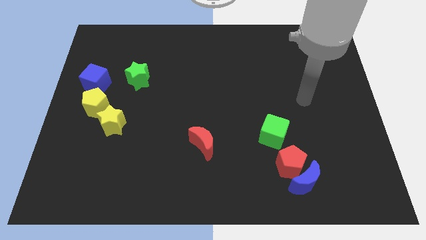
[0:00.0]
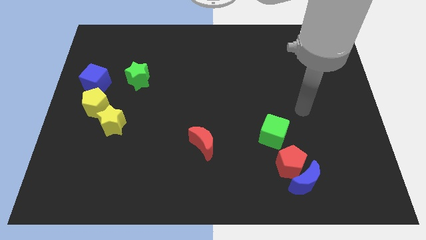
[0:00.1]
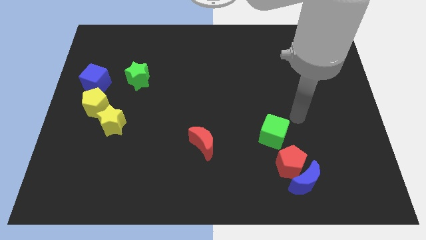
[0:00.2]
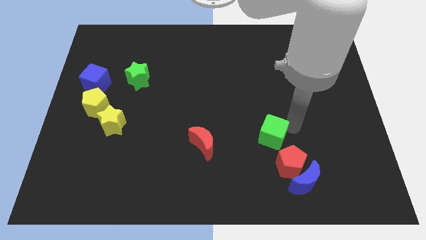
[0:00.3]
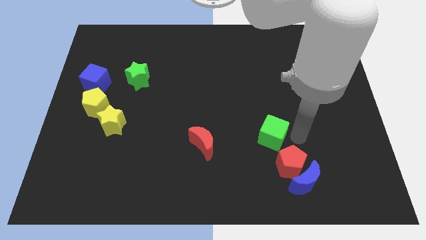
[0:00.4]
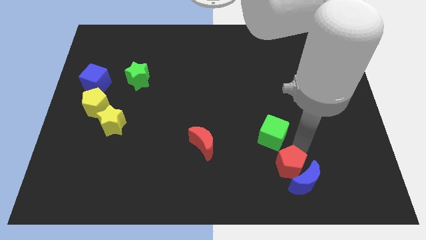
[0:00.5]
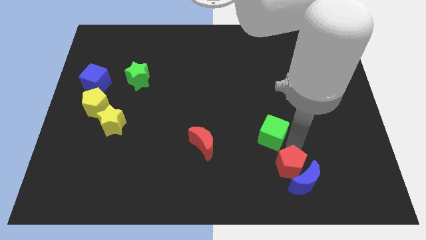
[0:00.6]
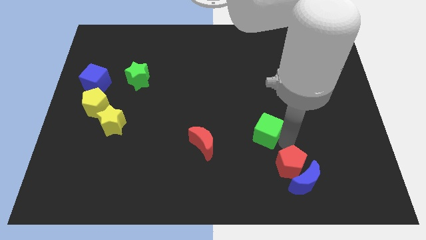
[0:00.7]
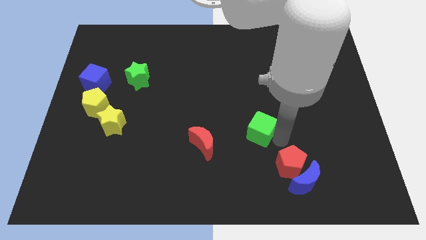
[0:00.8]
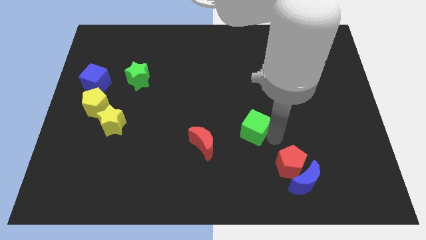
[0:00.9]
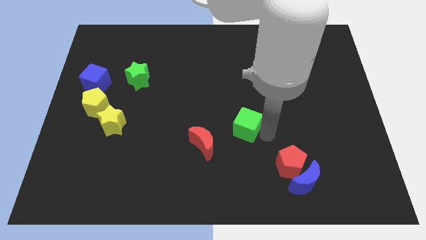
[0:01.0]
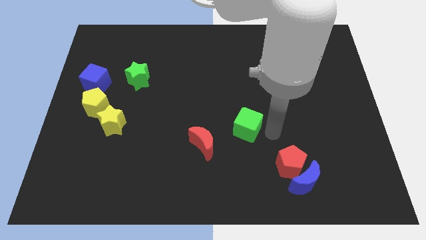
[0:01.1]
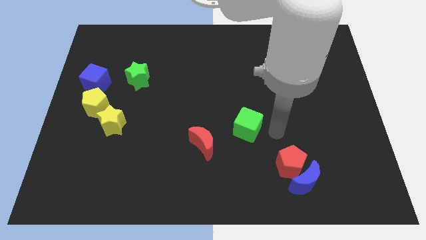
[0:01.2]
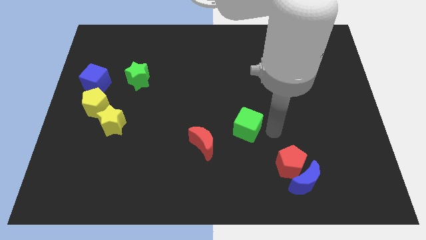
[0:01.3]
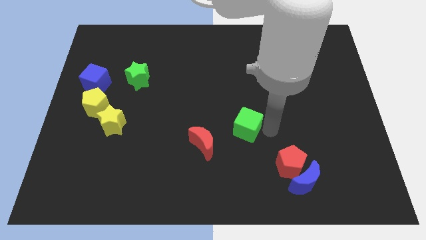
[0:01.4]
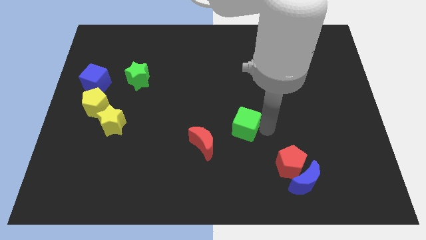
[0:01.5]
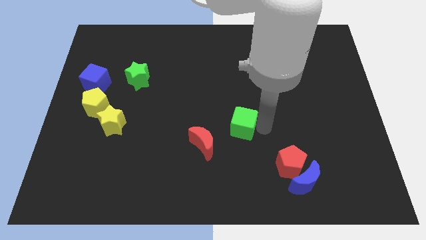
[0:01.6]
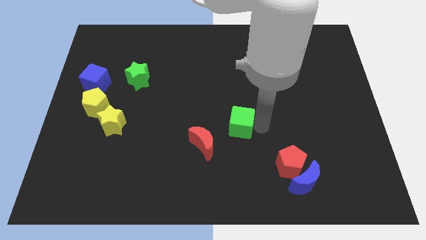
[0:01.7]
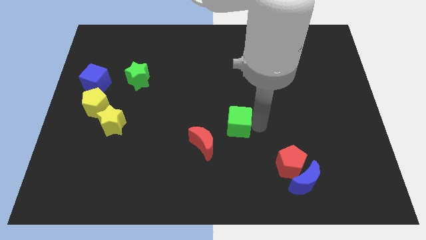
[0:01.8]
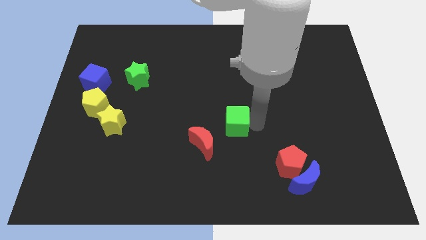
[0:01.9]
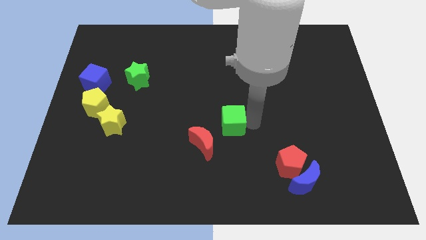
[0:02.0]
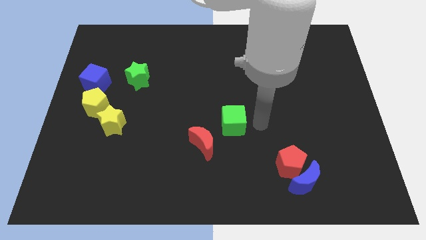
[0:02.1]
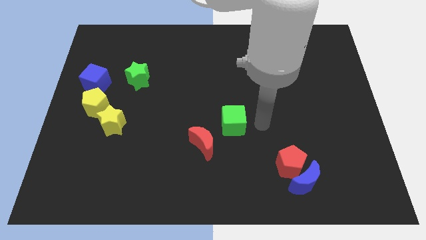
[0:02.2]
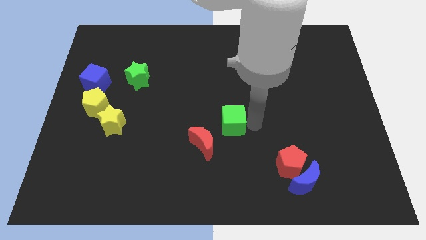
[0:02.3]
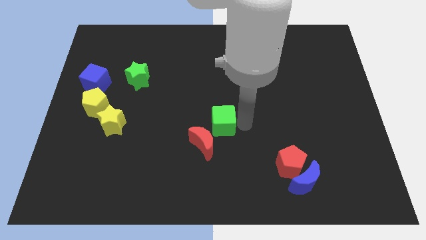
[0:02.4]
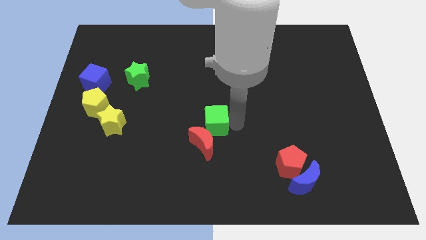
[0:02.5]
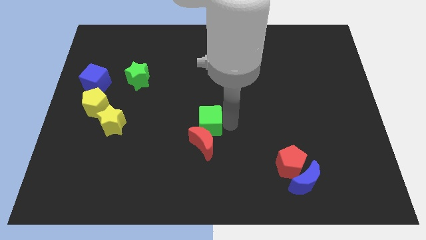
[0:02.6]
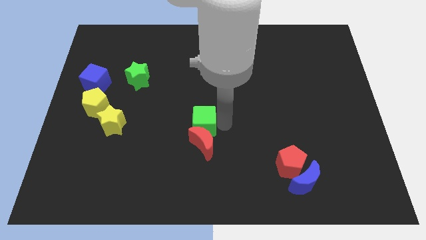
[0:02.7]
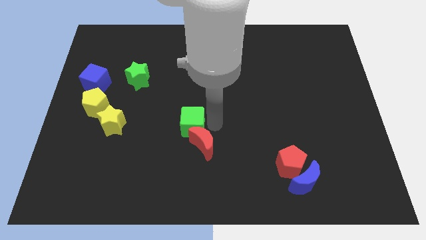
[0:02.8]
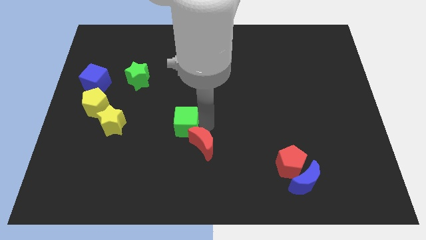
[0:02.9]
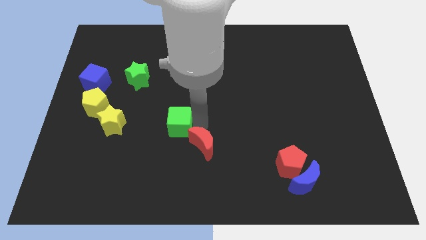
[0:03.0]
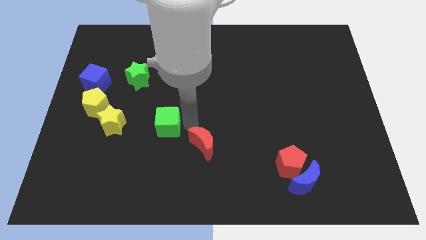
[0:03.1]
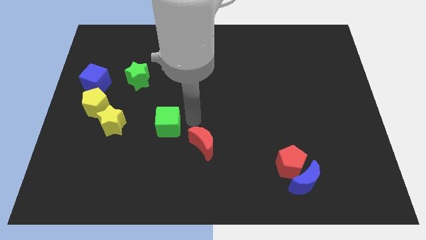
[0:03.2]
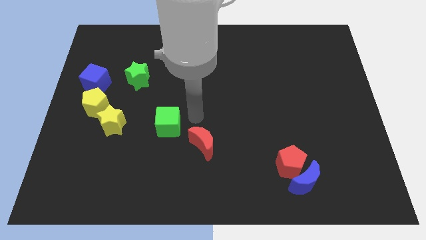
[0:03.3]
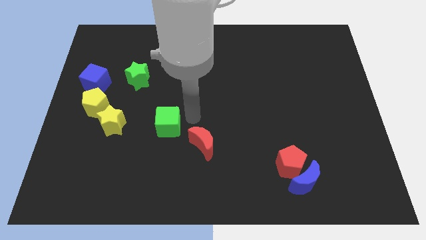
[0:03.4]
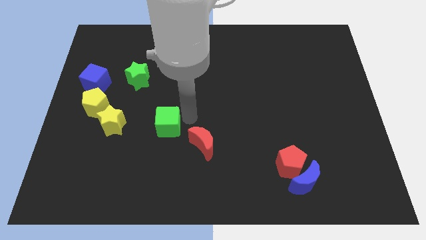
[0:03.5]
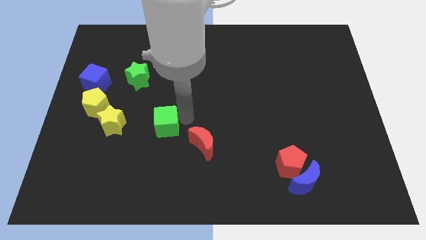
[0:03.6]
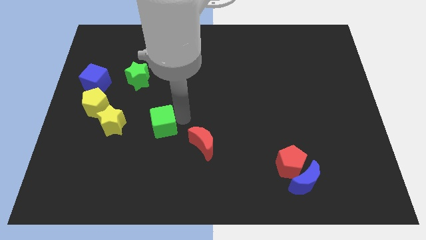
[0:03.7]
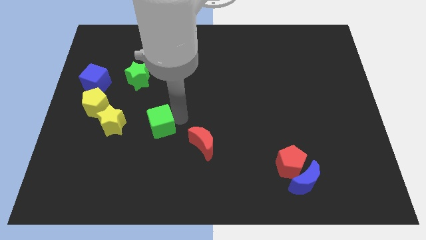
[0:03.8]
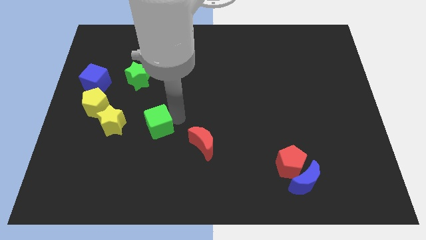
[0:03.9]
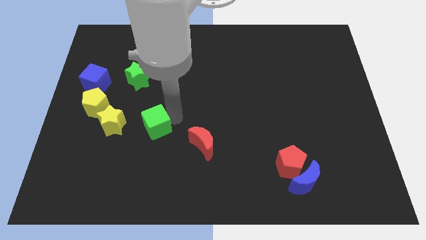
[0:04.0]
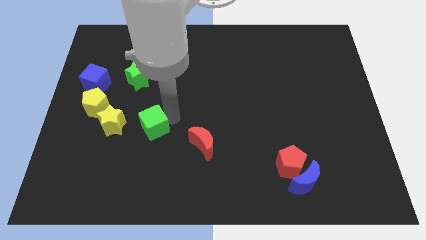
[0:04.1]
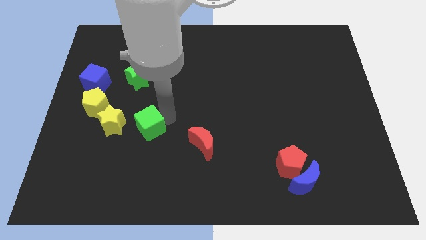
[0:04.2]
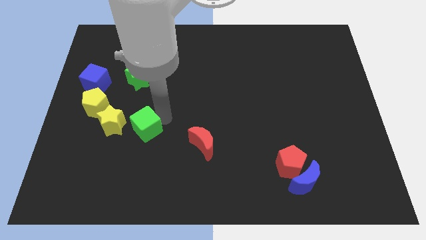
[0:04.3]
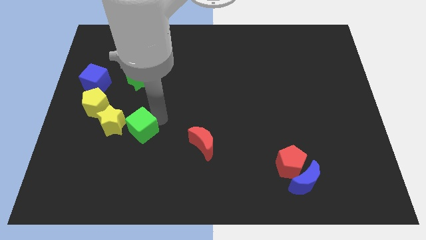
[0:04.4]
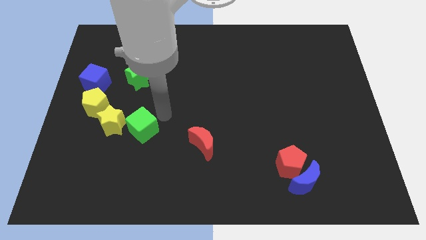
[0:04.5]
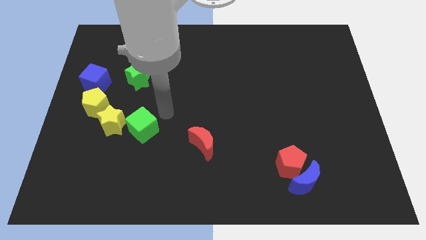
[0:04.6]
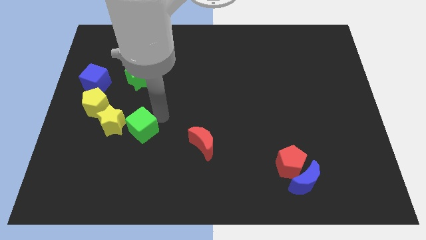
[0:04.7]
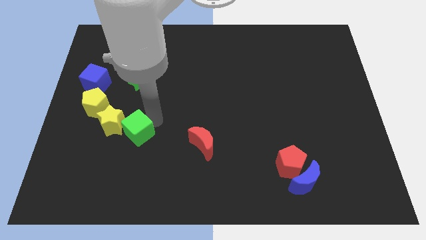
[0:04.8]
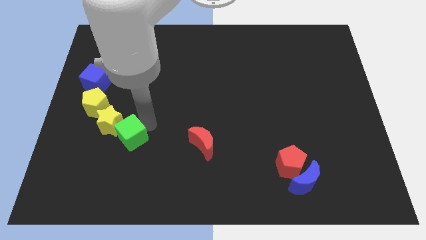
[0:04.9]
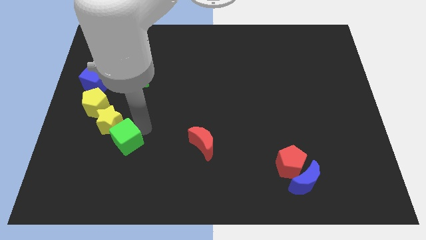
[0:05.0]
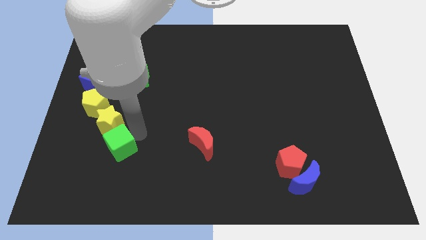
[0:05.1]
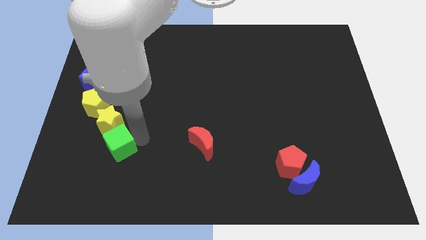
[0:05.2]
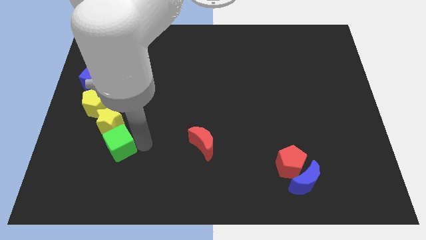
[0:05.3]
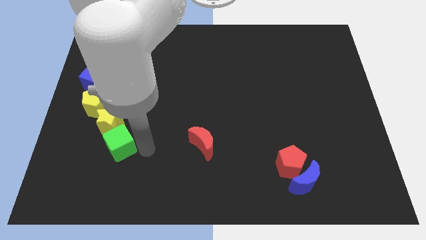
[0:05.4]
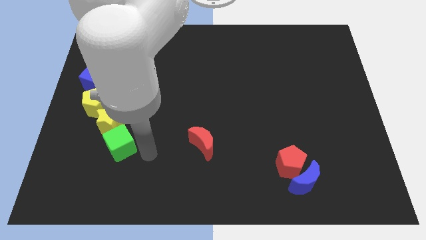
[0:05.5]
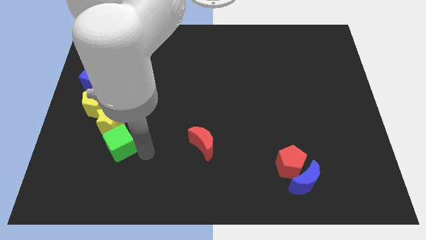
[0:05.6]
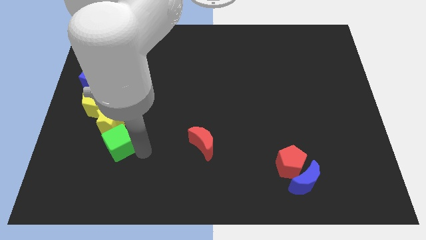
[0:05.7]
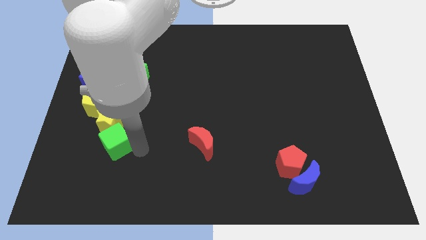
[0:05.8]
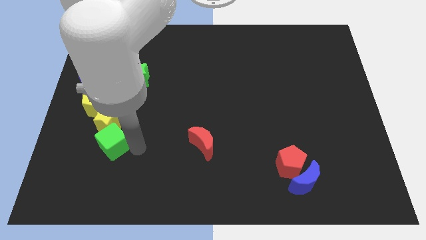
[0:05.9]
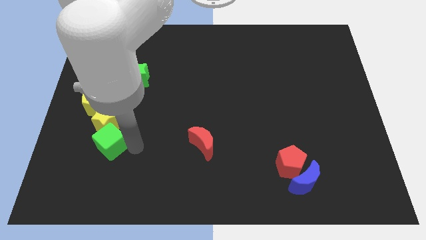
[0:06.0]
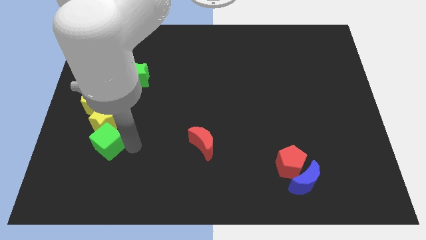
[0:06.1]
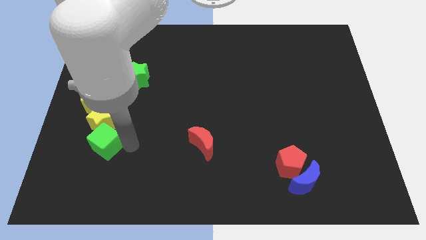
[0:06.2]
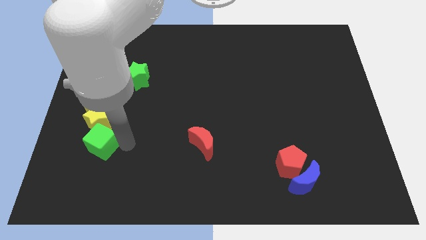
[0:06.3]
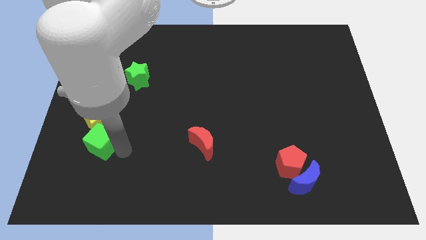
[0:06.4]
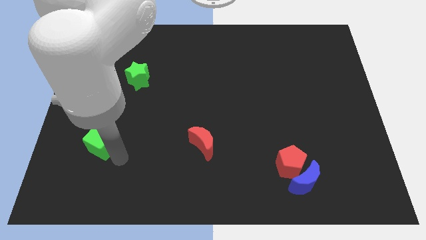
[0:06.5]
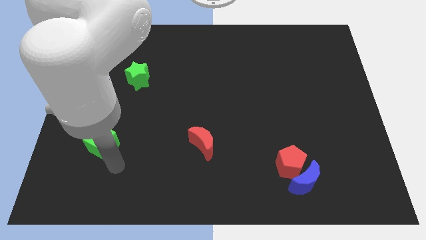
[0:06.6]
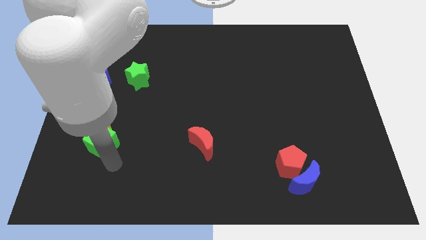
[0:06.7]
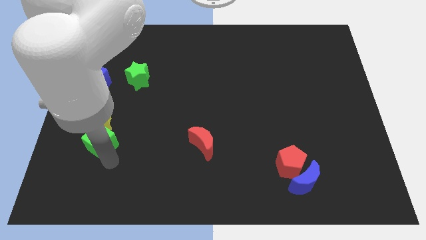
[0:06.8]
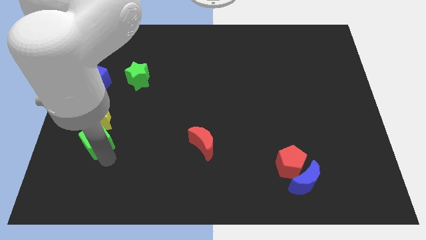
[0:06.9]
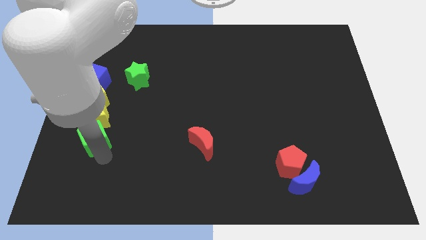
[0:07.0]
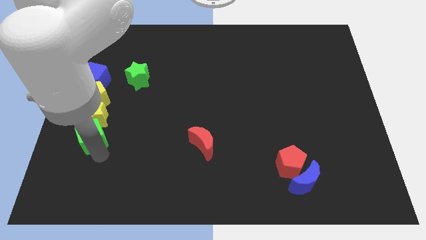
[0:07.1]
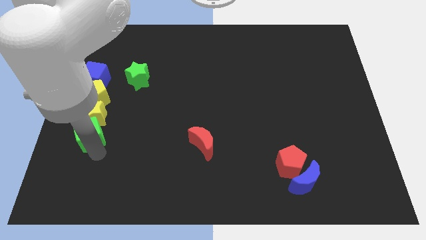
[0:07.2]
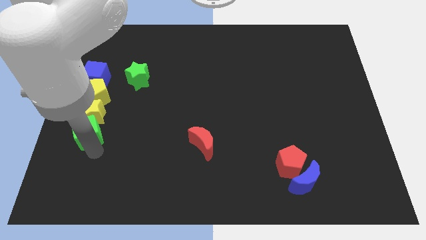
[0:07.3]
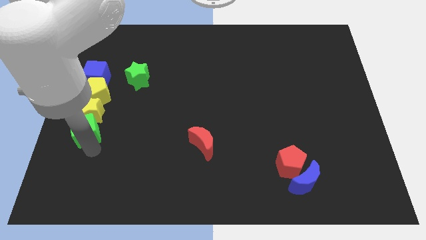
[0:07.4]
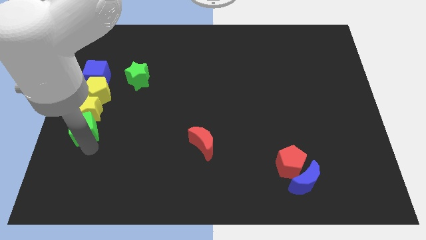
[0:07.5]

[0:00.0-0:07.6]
put the green cube to the bottom of the blue cube
